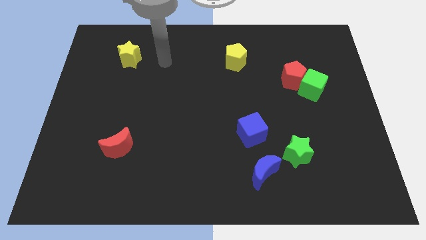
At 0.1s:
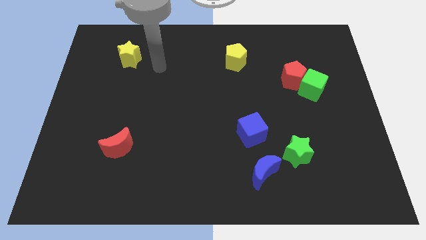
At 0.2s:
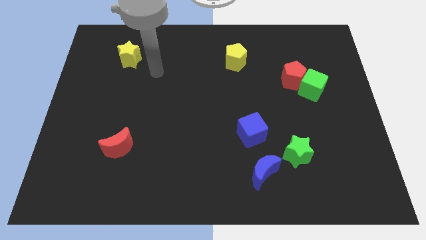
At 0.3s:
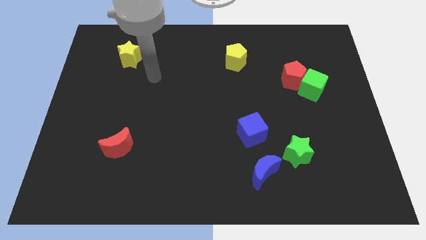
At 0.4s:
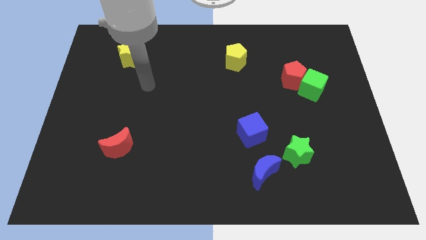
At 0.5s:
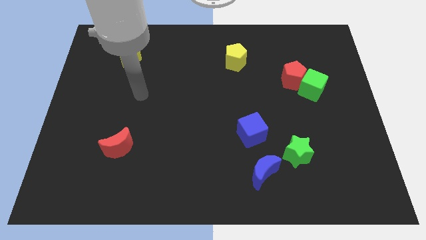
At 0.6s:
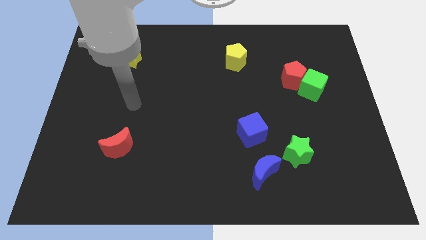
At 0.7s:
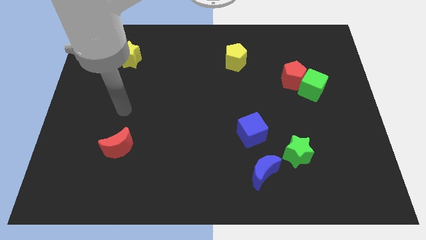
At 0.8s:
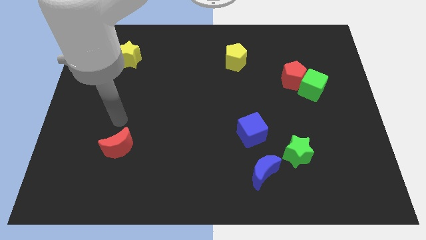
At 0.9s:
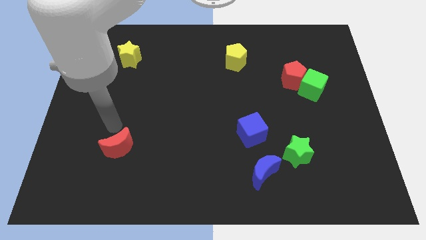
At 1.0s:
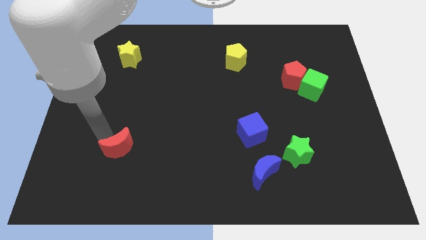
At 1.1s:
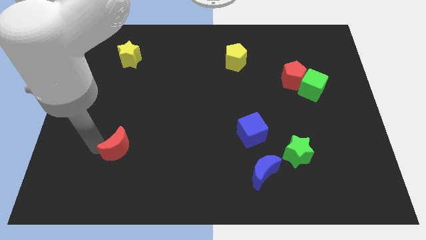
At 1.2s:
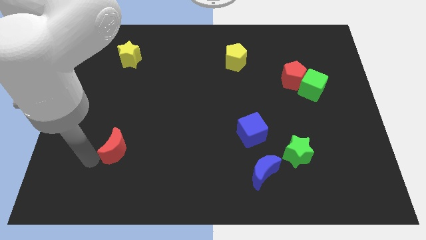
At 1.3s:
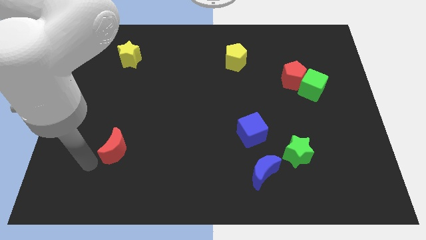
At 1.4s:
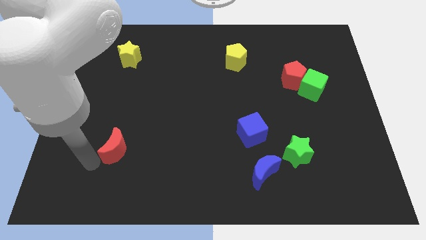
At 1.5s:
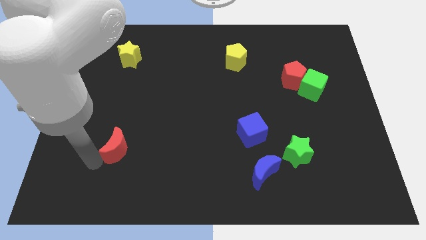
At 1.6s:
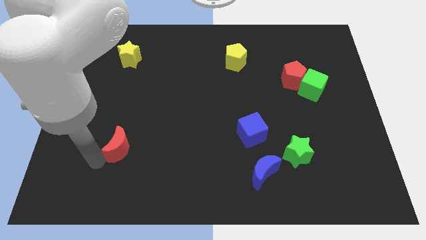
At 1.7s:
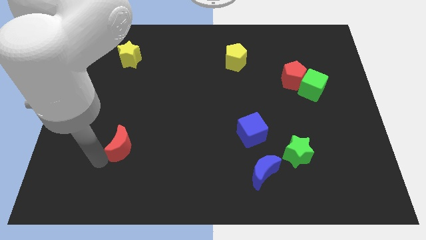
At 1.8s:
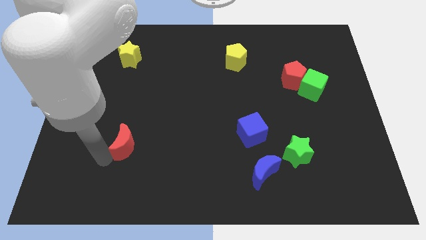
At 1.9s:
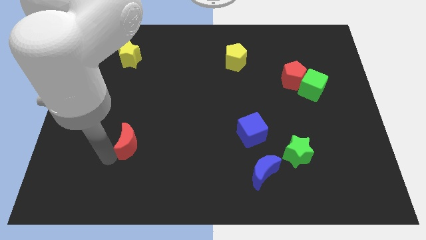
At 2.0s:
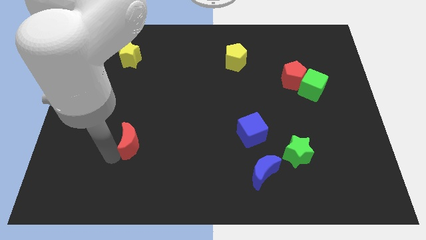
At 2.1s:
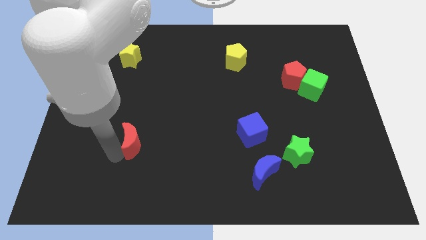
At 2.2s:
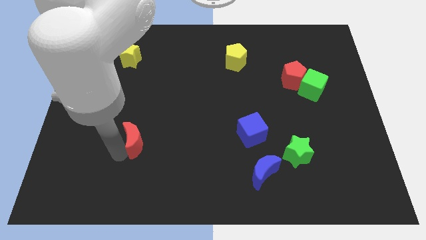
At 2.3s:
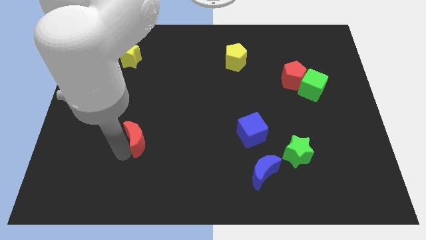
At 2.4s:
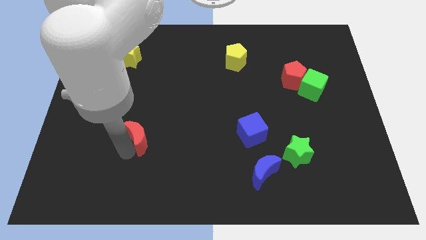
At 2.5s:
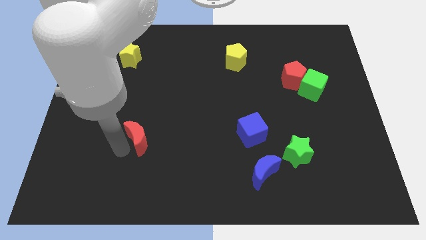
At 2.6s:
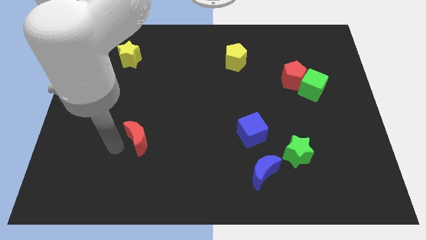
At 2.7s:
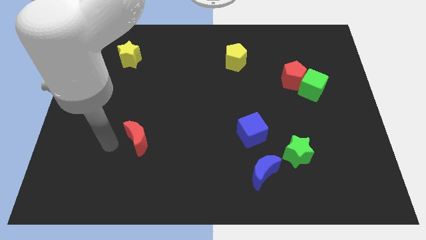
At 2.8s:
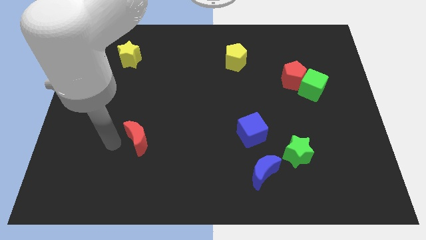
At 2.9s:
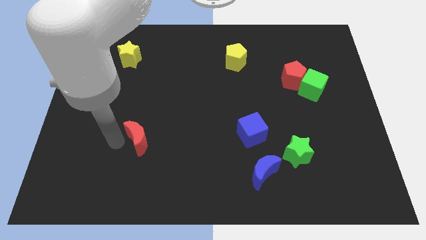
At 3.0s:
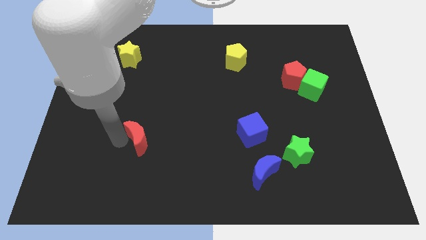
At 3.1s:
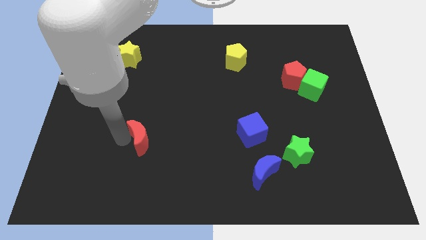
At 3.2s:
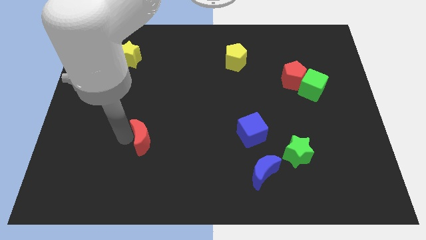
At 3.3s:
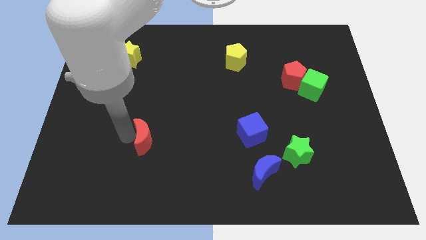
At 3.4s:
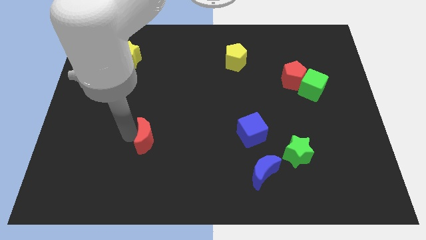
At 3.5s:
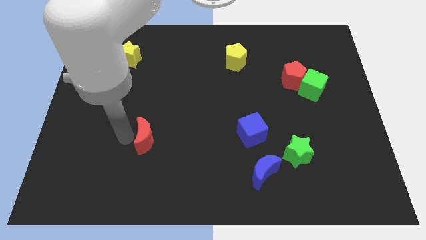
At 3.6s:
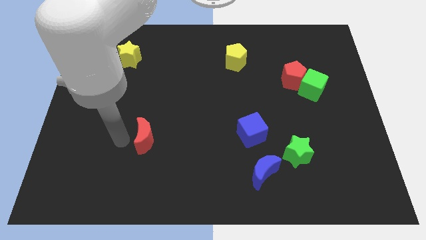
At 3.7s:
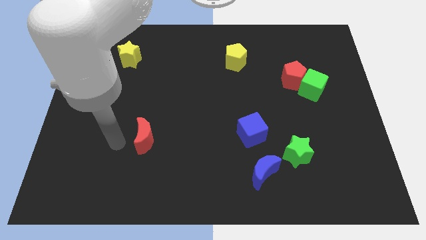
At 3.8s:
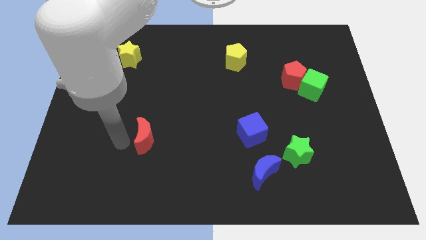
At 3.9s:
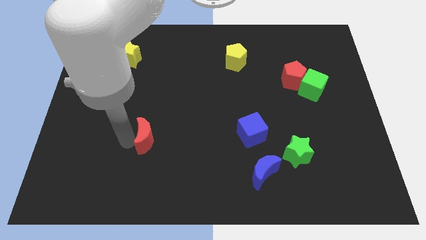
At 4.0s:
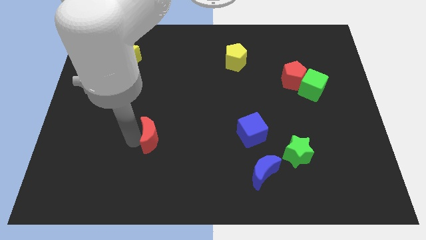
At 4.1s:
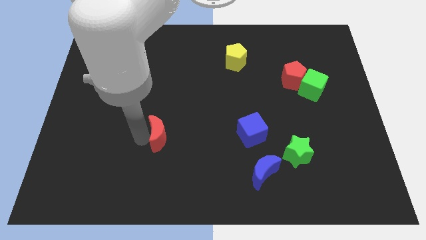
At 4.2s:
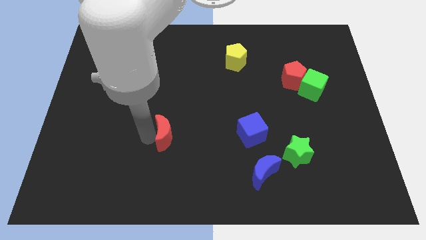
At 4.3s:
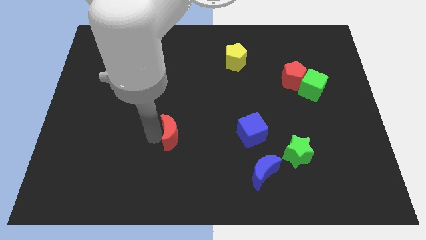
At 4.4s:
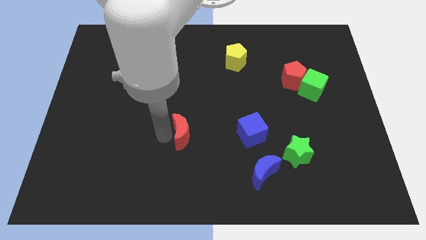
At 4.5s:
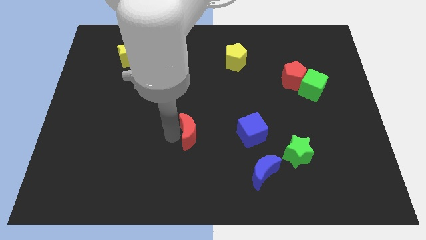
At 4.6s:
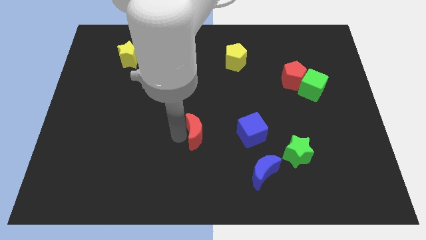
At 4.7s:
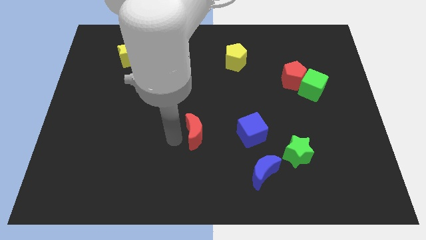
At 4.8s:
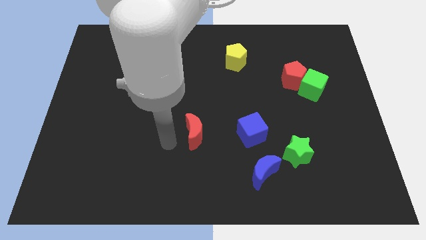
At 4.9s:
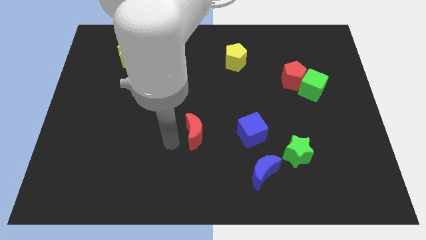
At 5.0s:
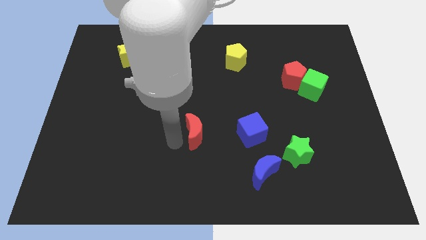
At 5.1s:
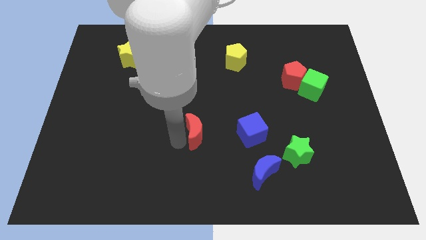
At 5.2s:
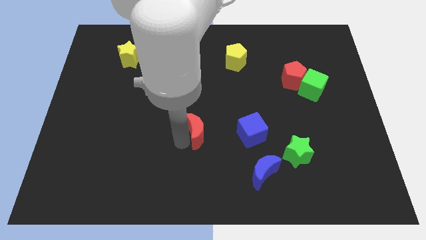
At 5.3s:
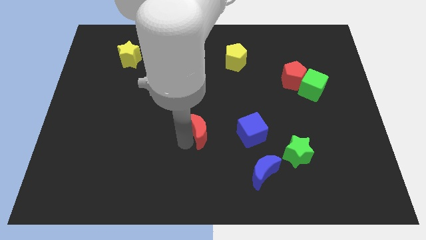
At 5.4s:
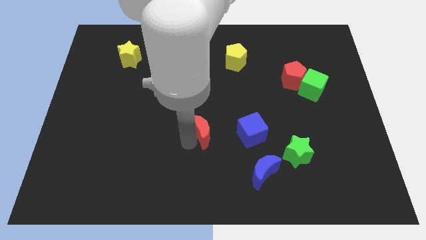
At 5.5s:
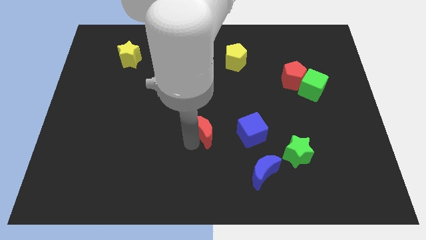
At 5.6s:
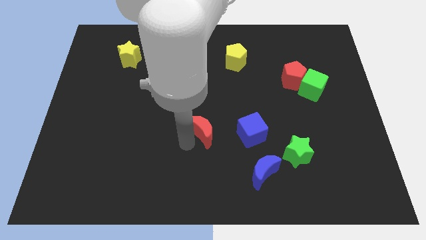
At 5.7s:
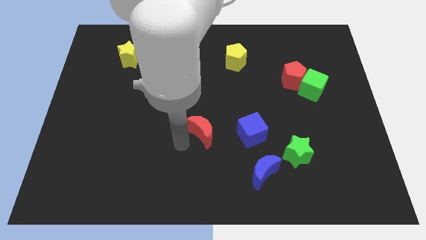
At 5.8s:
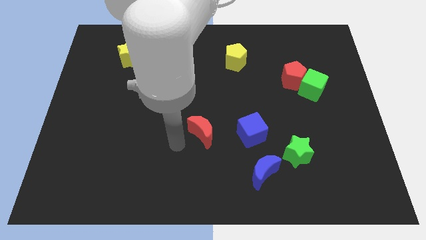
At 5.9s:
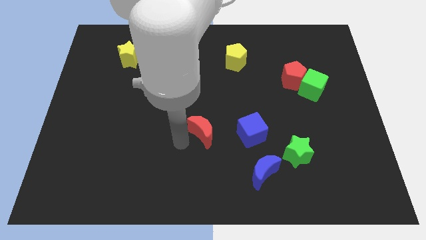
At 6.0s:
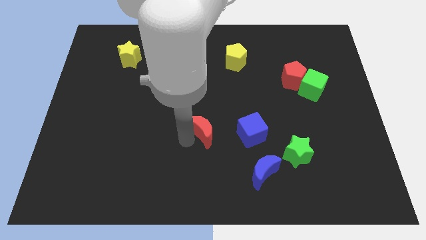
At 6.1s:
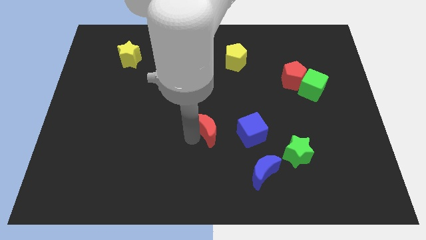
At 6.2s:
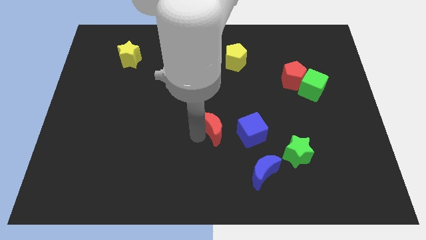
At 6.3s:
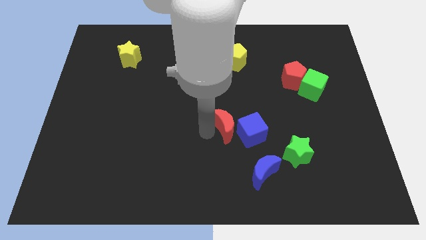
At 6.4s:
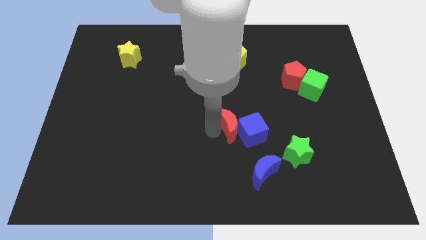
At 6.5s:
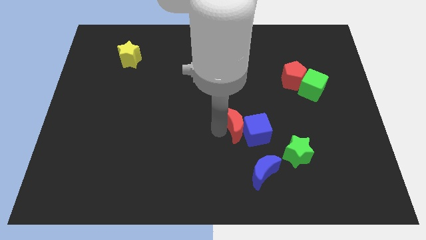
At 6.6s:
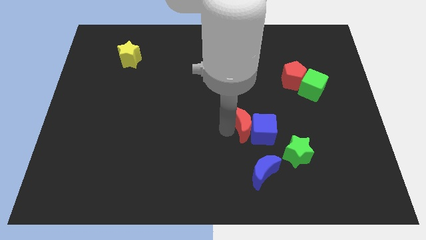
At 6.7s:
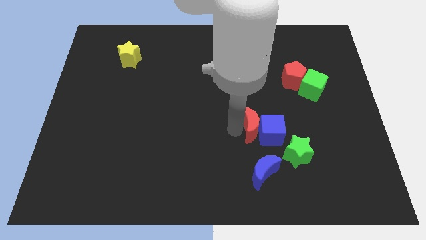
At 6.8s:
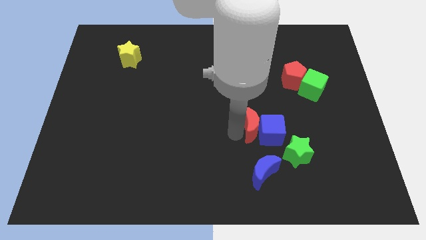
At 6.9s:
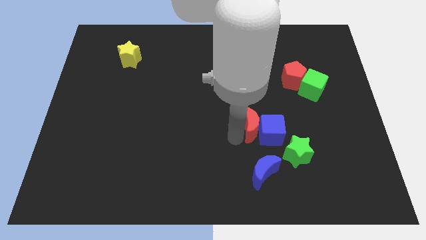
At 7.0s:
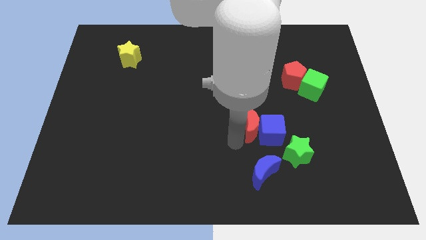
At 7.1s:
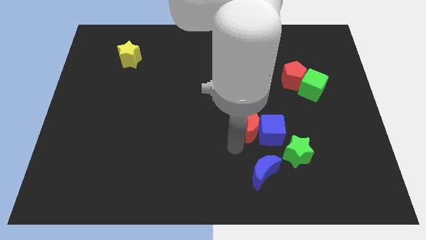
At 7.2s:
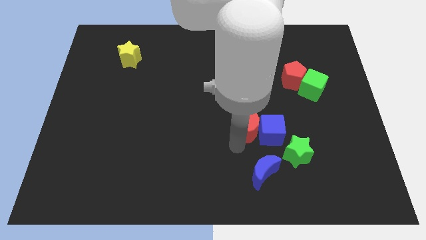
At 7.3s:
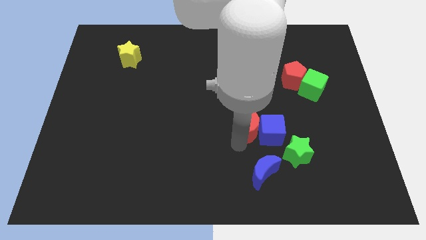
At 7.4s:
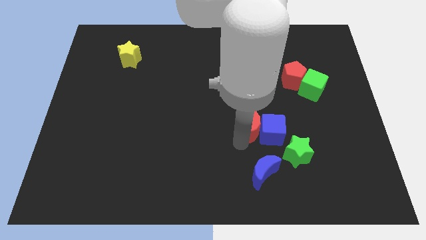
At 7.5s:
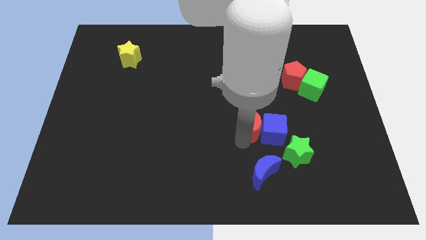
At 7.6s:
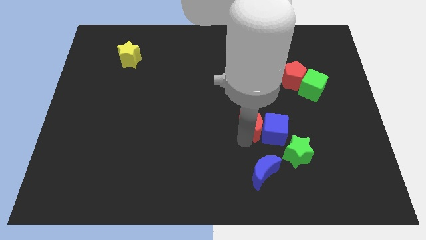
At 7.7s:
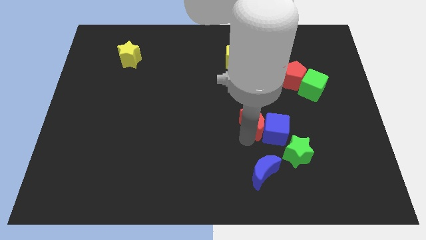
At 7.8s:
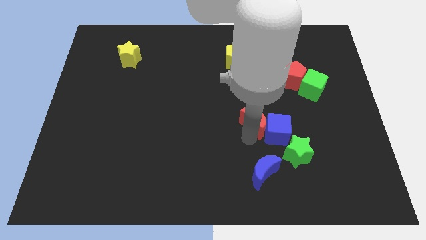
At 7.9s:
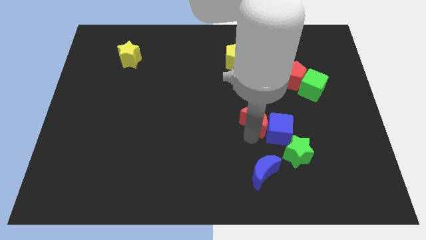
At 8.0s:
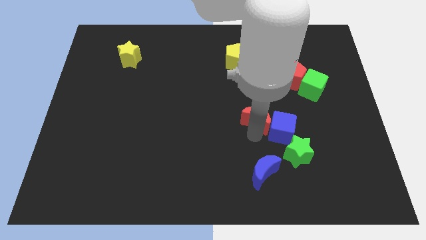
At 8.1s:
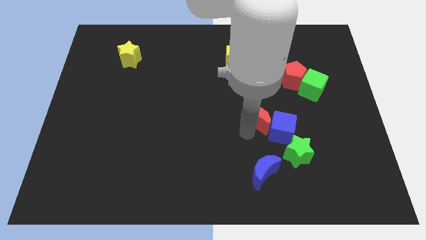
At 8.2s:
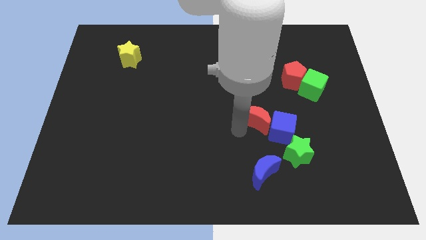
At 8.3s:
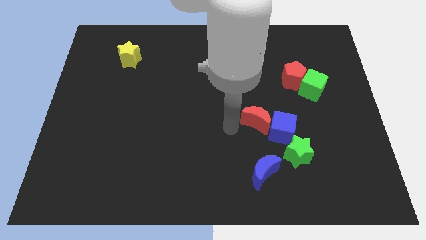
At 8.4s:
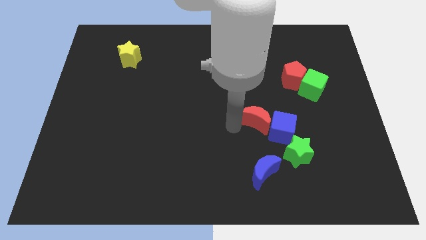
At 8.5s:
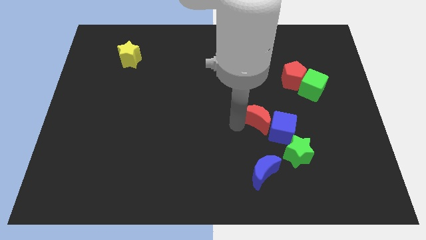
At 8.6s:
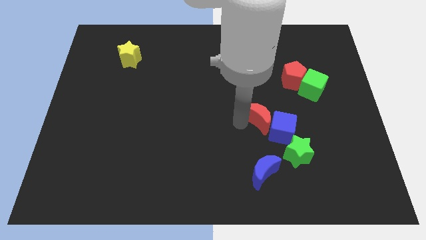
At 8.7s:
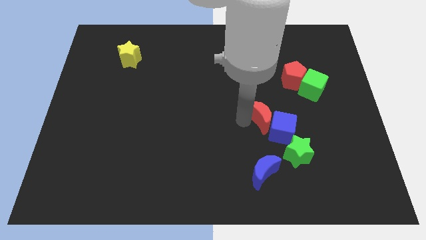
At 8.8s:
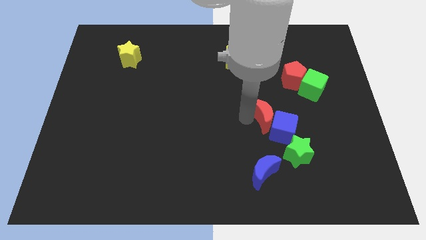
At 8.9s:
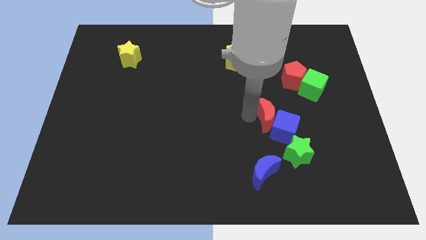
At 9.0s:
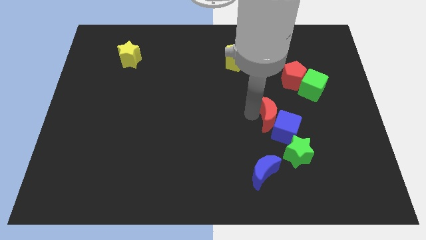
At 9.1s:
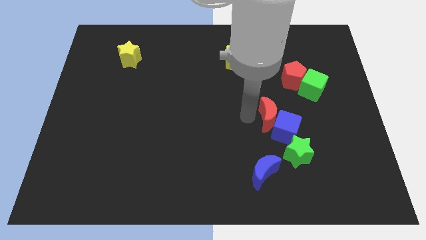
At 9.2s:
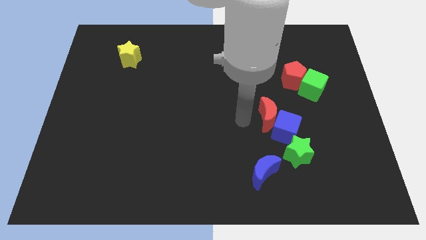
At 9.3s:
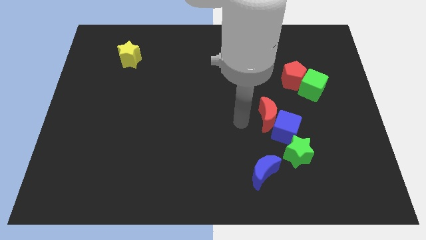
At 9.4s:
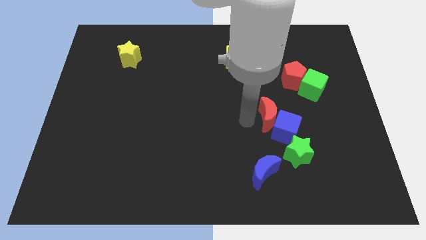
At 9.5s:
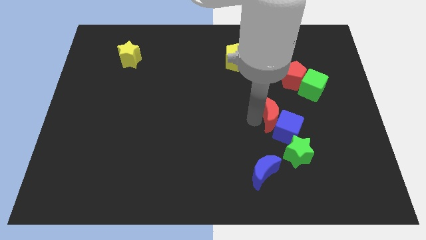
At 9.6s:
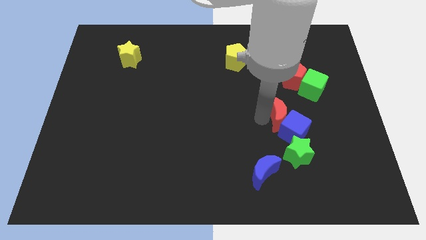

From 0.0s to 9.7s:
push the red moon to the bottom side of the red pentagon
